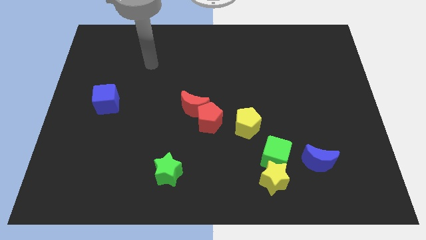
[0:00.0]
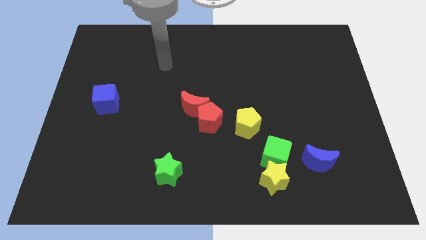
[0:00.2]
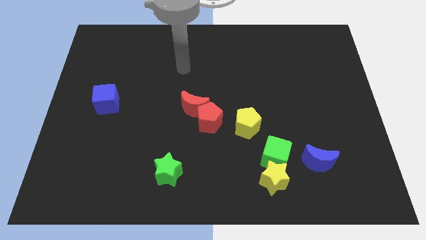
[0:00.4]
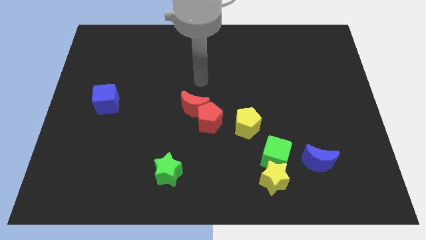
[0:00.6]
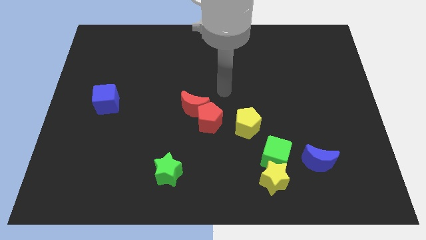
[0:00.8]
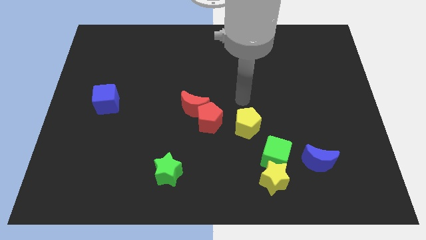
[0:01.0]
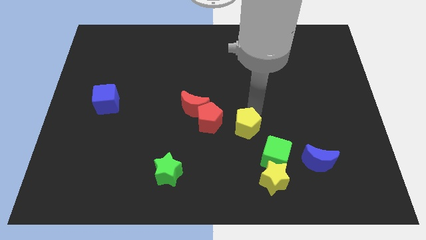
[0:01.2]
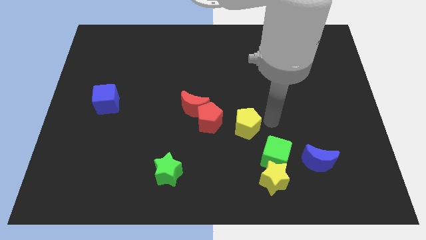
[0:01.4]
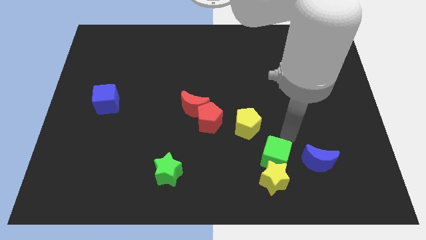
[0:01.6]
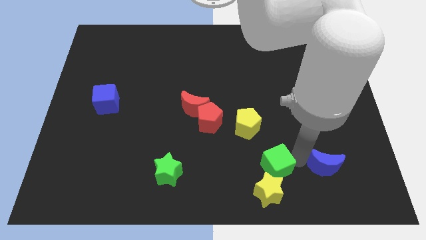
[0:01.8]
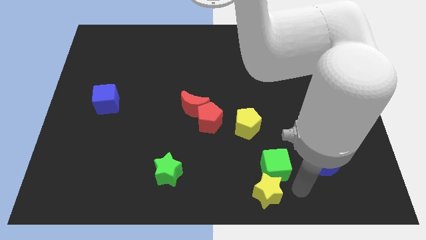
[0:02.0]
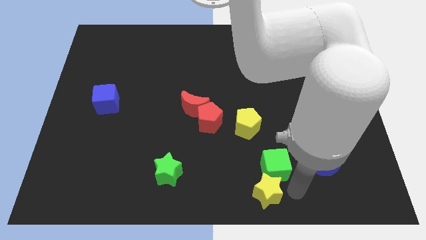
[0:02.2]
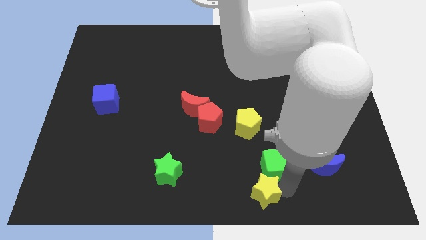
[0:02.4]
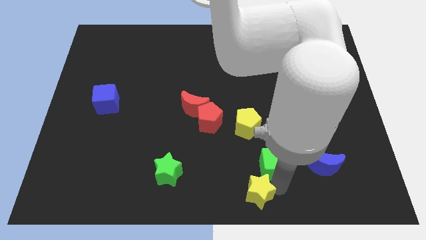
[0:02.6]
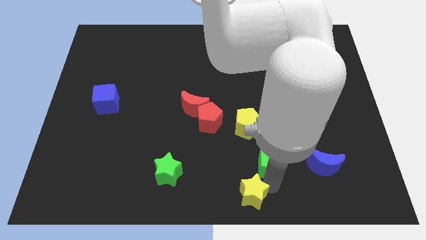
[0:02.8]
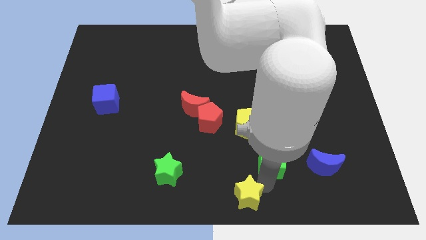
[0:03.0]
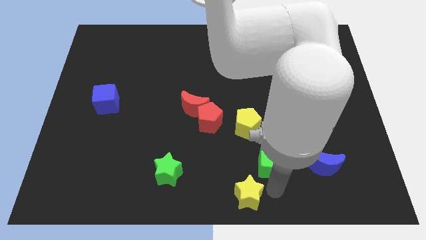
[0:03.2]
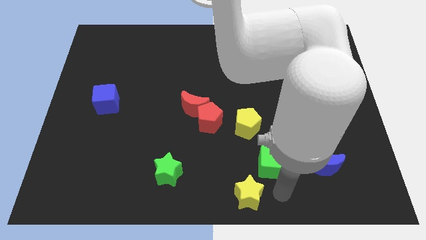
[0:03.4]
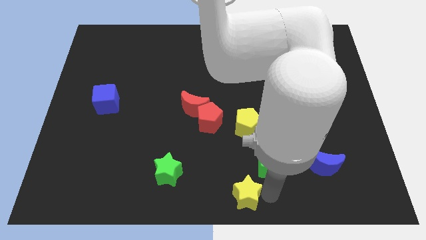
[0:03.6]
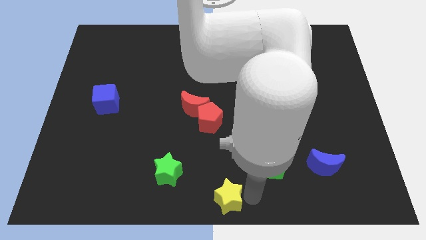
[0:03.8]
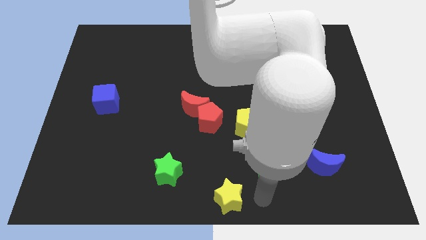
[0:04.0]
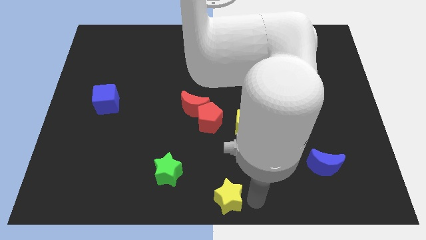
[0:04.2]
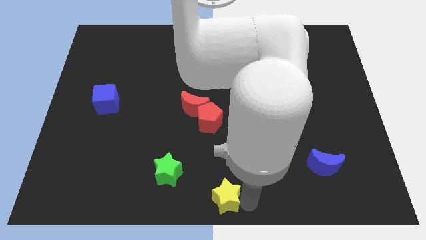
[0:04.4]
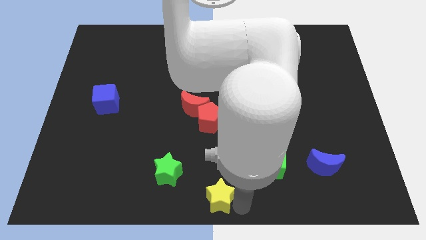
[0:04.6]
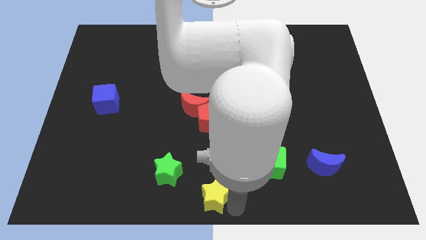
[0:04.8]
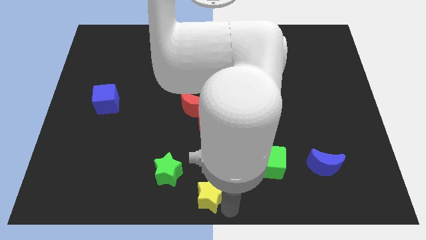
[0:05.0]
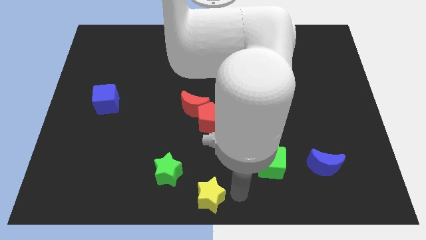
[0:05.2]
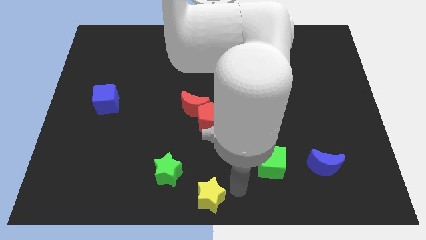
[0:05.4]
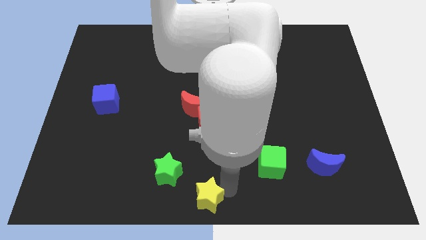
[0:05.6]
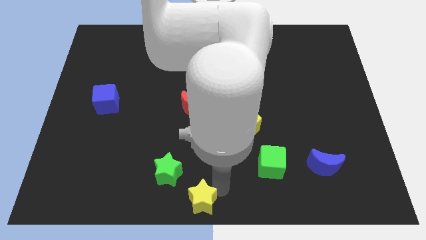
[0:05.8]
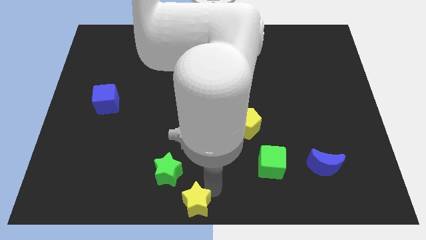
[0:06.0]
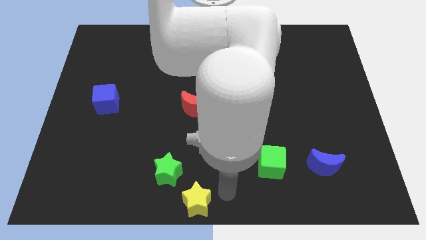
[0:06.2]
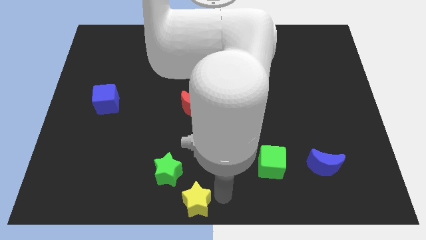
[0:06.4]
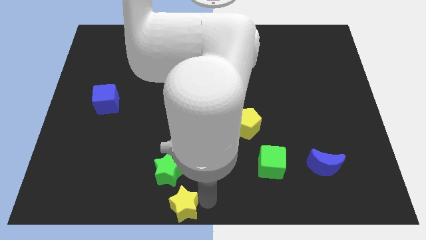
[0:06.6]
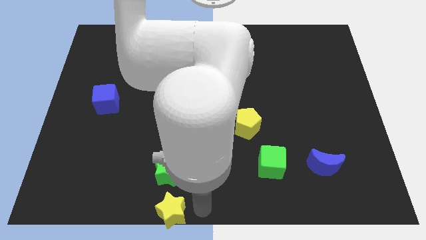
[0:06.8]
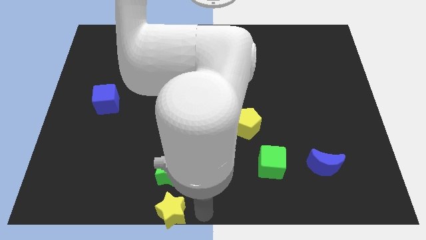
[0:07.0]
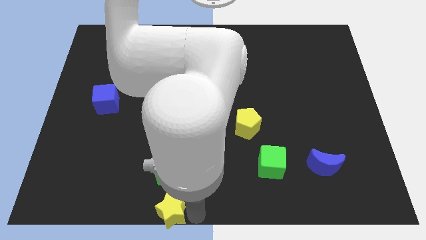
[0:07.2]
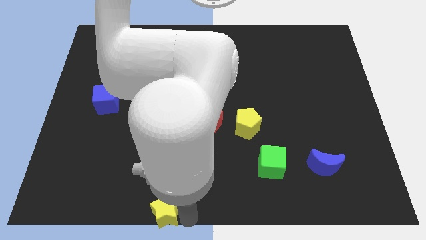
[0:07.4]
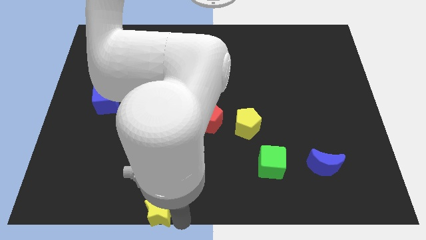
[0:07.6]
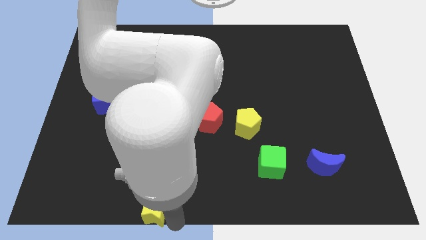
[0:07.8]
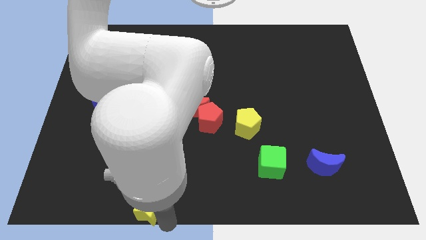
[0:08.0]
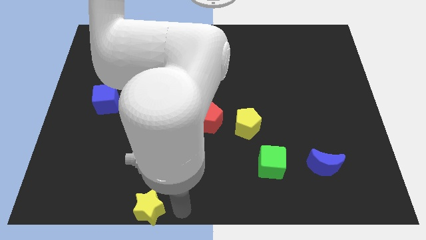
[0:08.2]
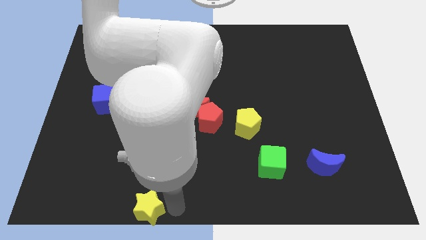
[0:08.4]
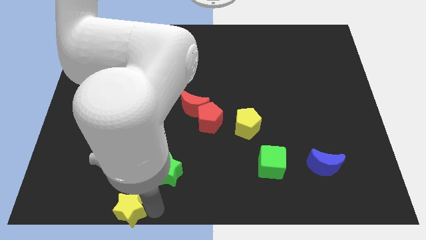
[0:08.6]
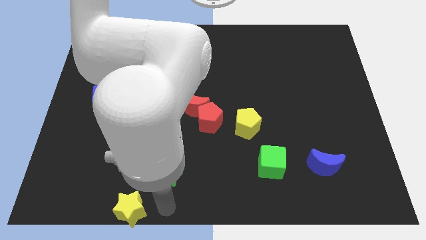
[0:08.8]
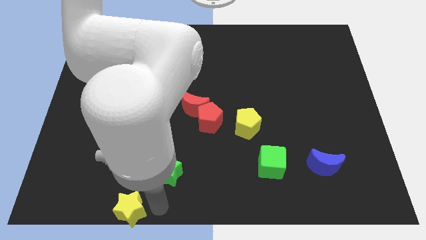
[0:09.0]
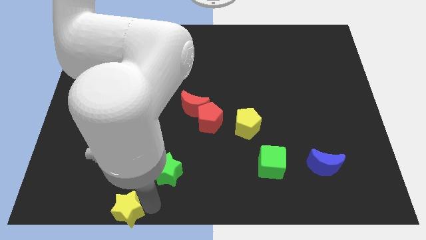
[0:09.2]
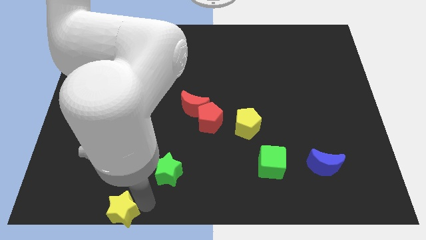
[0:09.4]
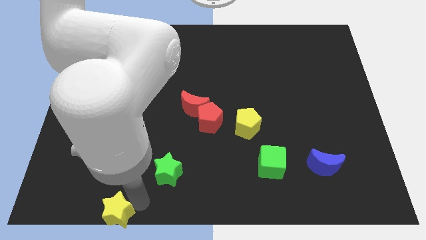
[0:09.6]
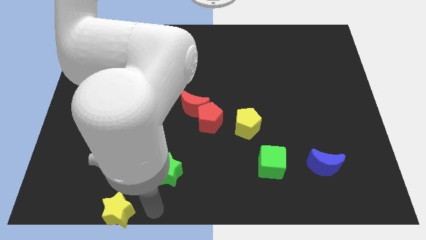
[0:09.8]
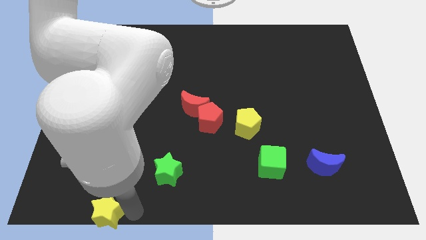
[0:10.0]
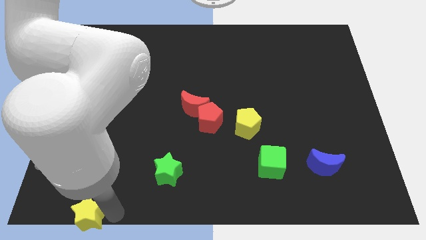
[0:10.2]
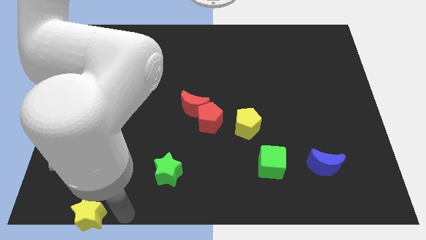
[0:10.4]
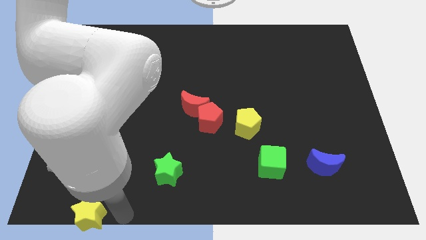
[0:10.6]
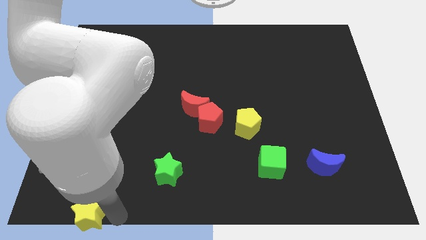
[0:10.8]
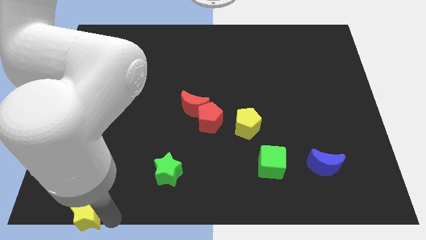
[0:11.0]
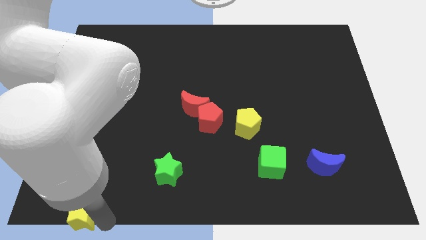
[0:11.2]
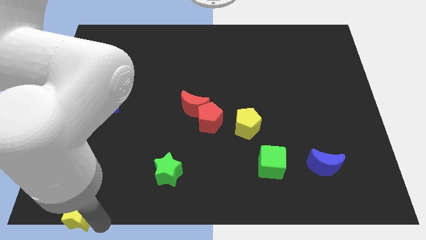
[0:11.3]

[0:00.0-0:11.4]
slide the yellow star to the lower left corner

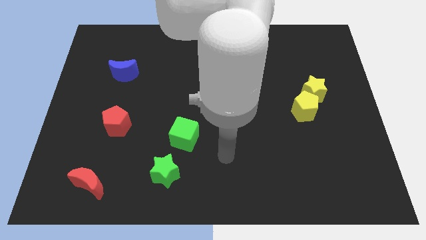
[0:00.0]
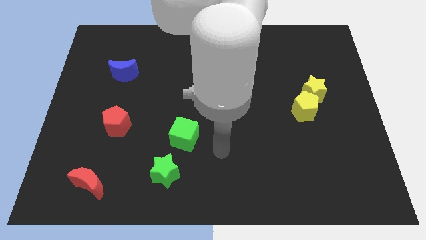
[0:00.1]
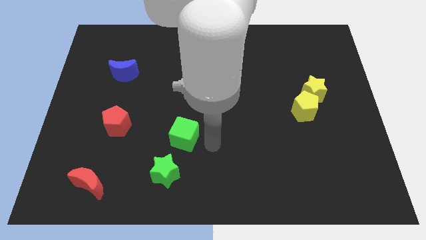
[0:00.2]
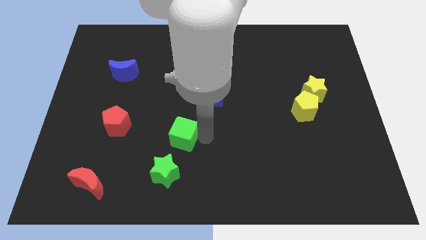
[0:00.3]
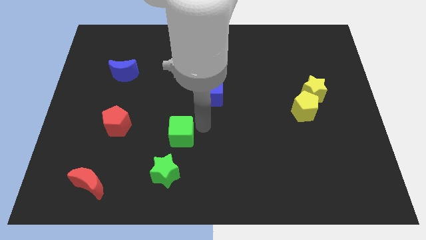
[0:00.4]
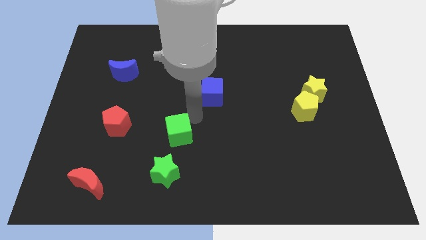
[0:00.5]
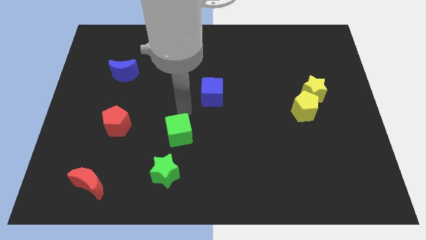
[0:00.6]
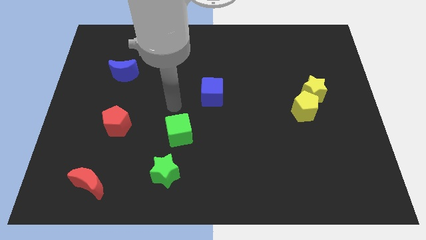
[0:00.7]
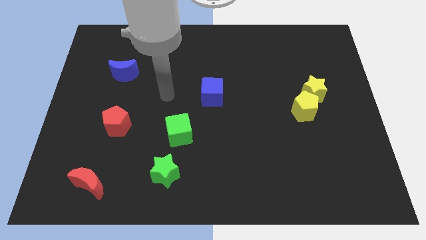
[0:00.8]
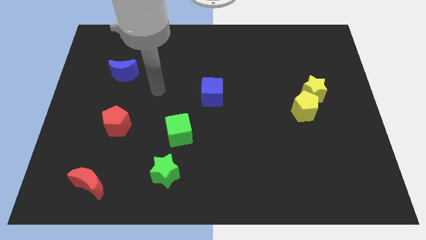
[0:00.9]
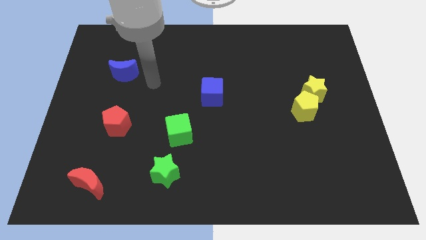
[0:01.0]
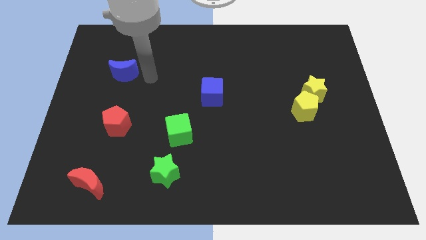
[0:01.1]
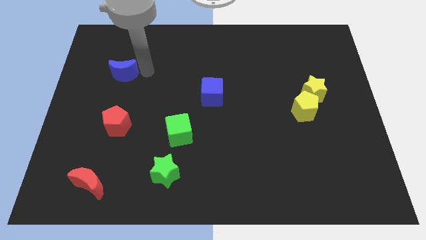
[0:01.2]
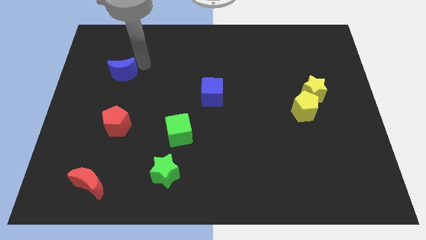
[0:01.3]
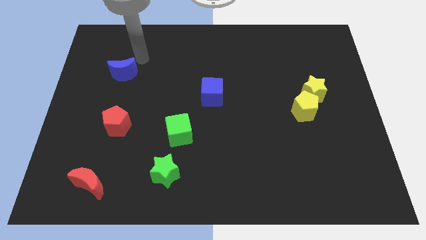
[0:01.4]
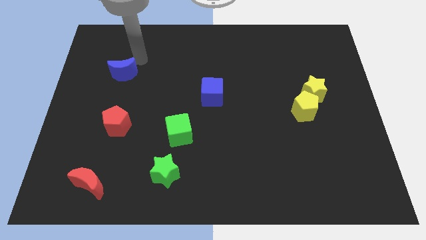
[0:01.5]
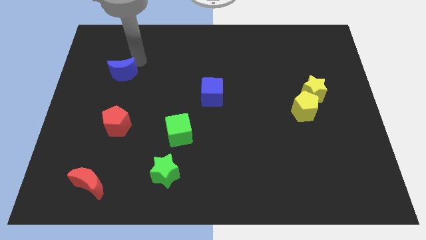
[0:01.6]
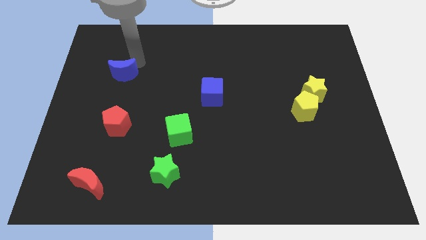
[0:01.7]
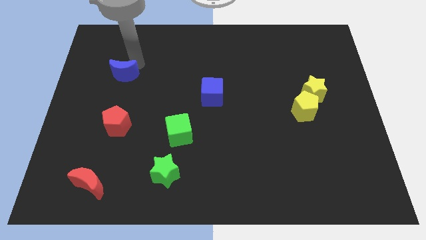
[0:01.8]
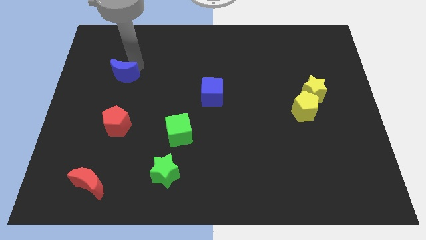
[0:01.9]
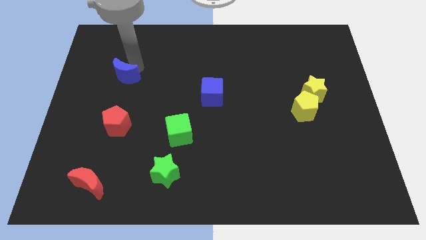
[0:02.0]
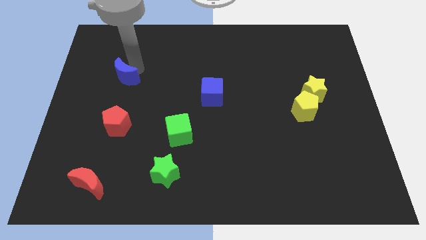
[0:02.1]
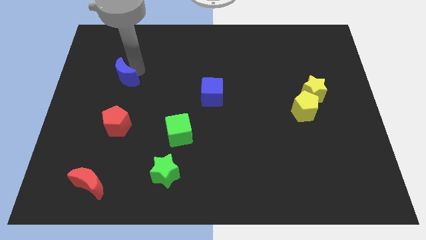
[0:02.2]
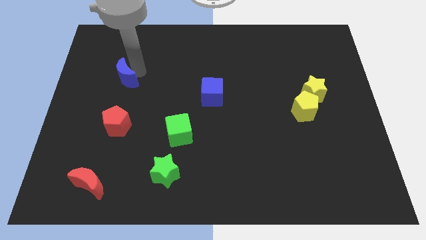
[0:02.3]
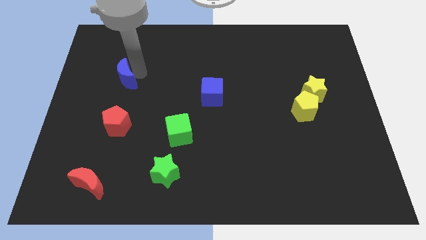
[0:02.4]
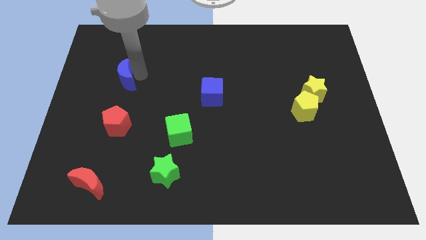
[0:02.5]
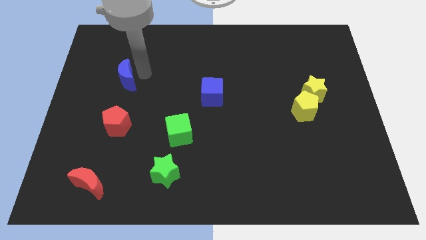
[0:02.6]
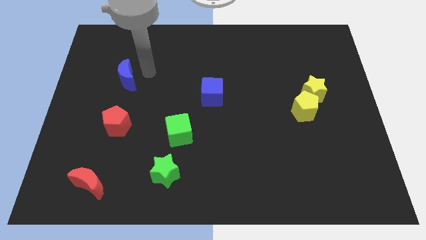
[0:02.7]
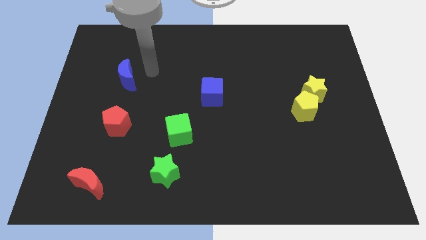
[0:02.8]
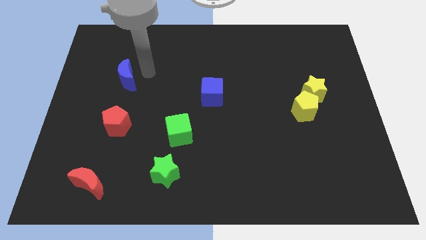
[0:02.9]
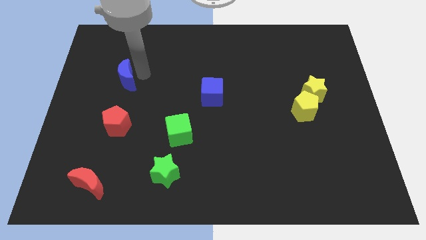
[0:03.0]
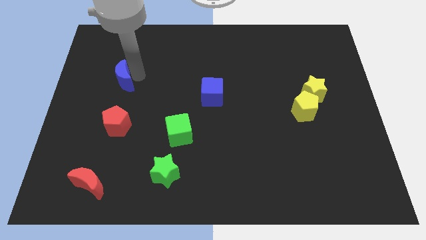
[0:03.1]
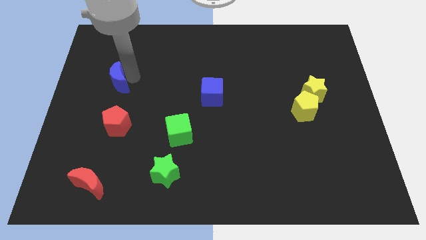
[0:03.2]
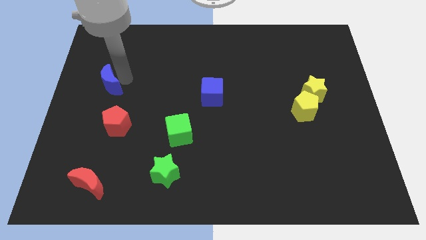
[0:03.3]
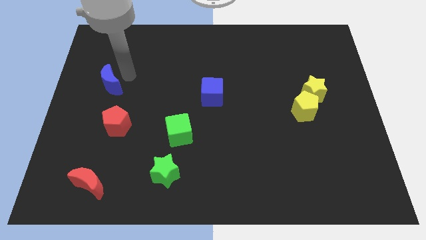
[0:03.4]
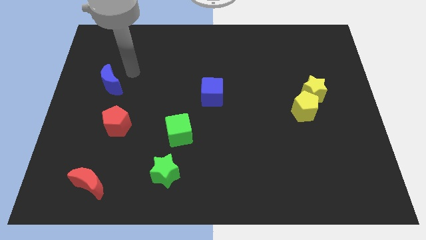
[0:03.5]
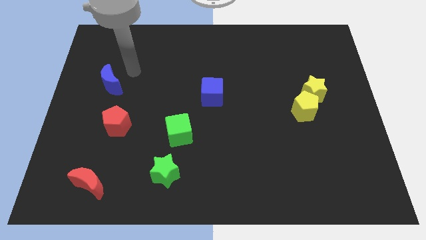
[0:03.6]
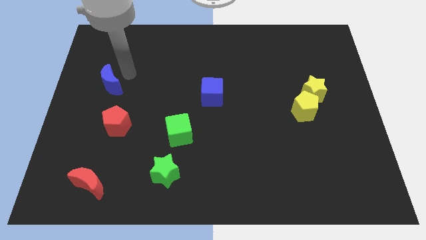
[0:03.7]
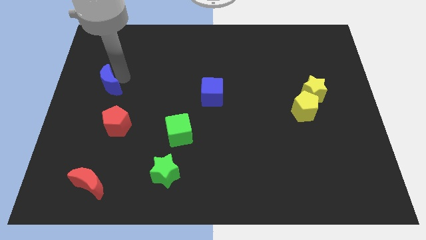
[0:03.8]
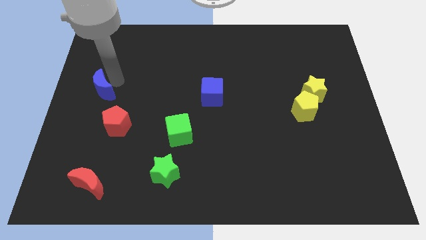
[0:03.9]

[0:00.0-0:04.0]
put the blue moon to the left side
